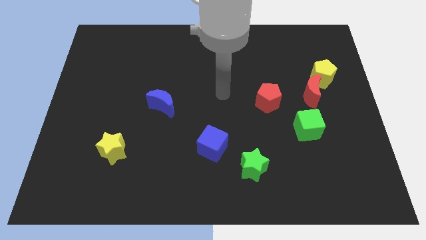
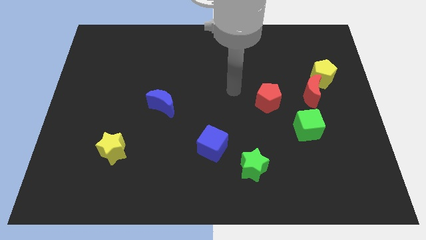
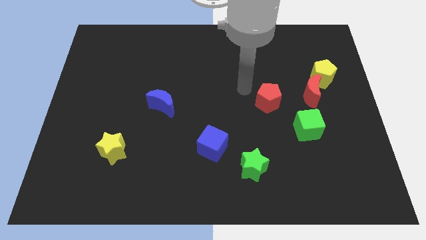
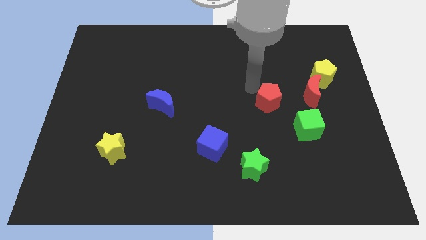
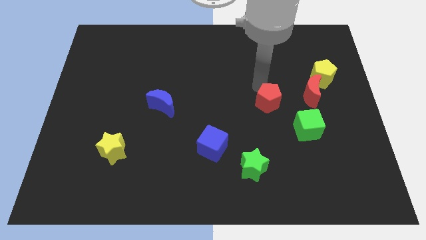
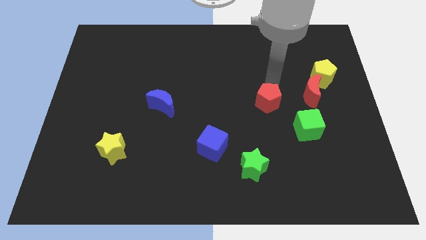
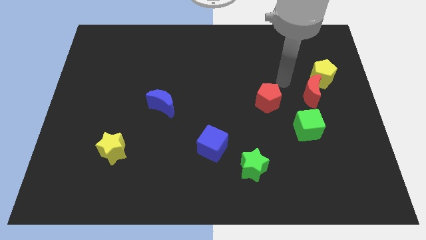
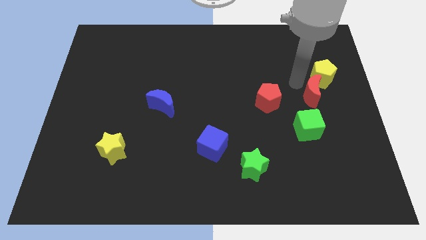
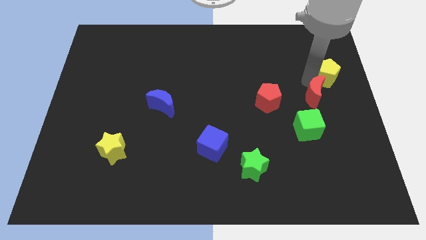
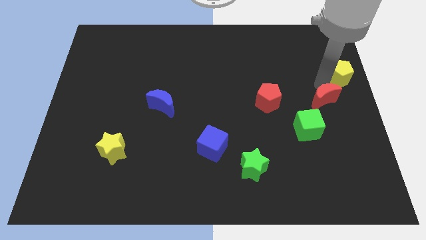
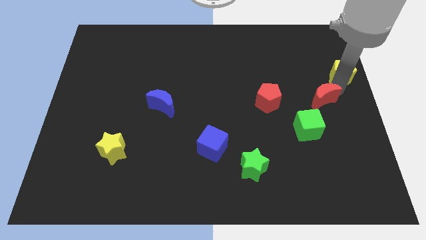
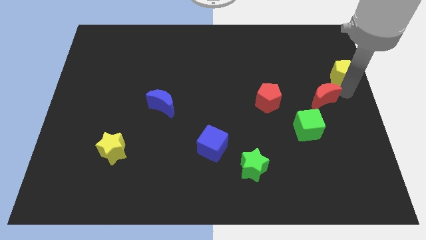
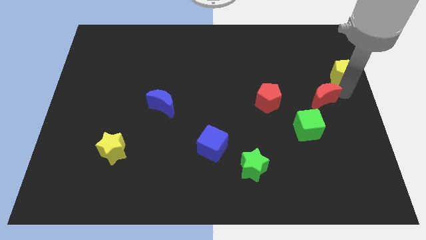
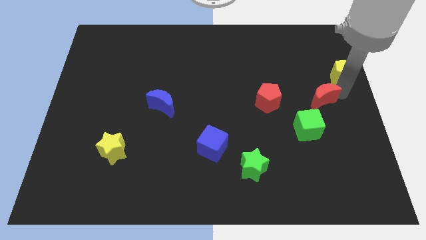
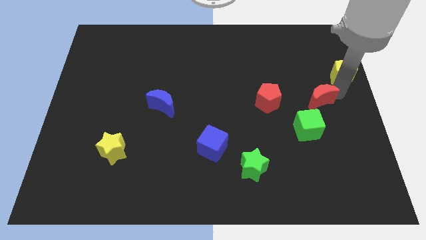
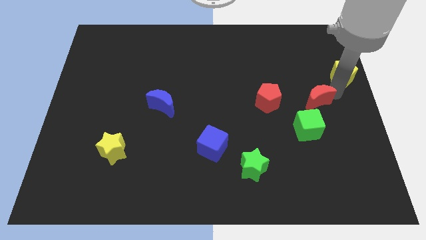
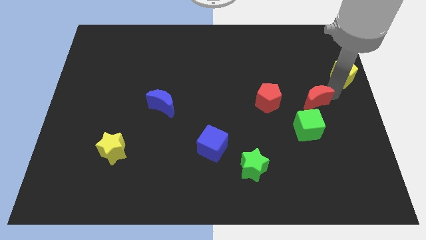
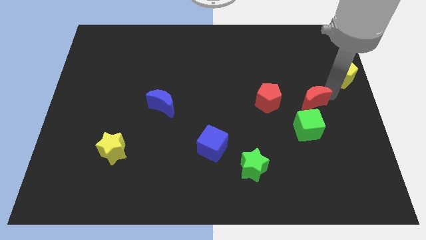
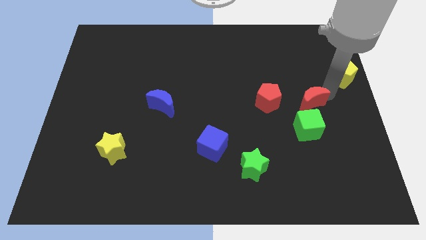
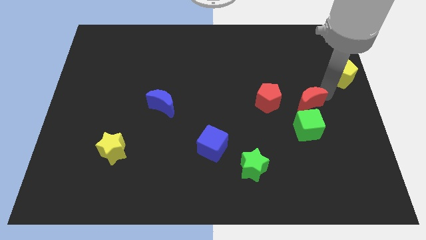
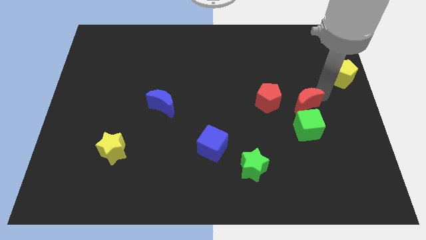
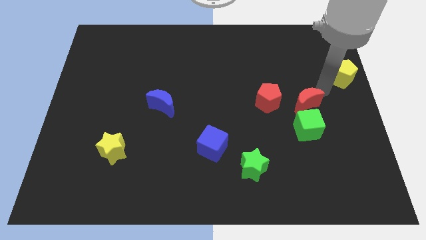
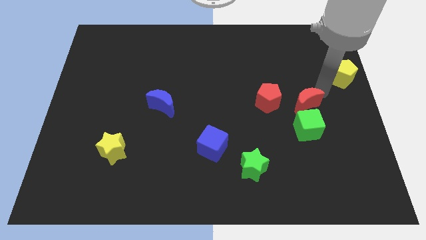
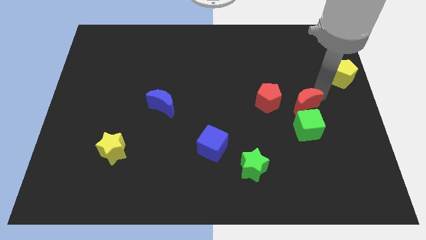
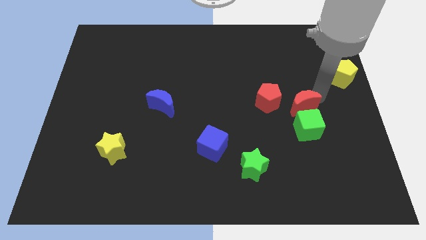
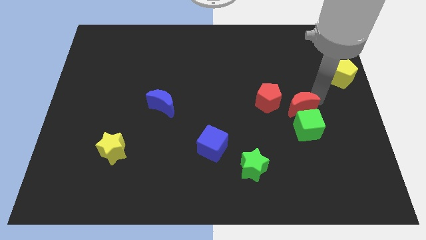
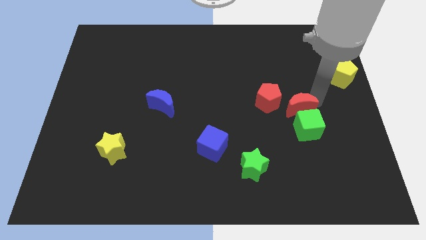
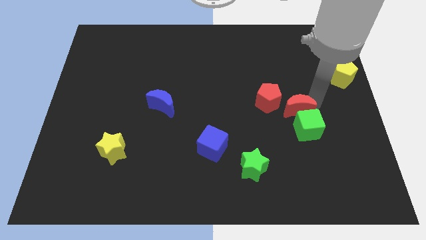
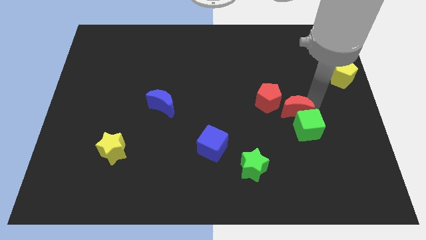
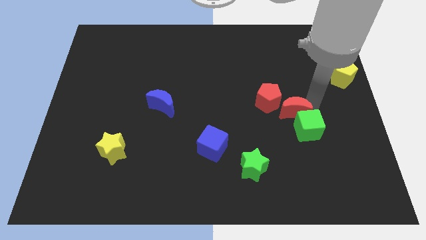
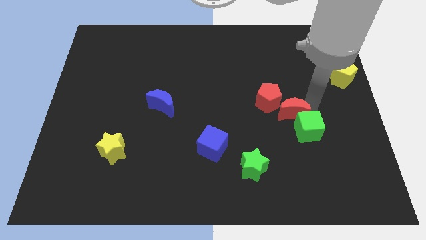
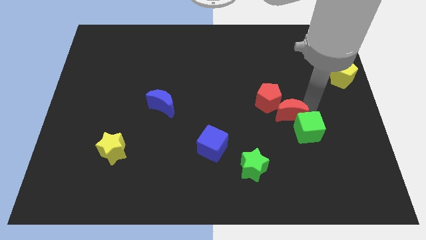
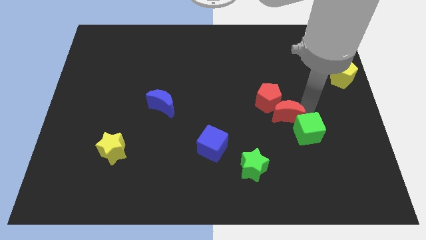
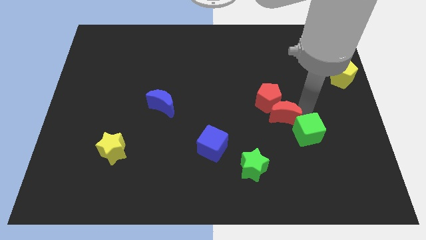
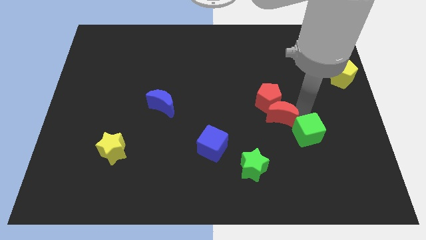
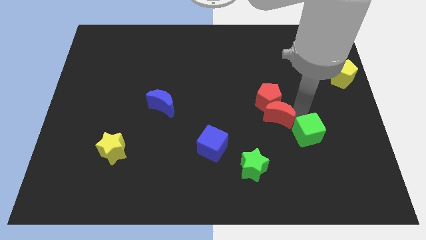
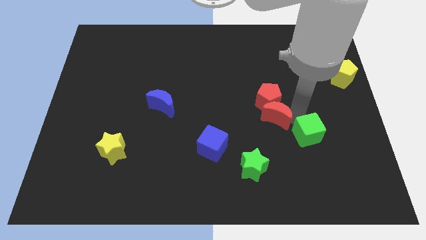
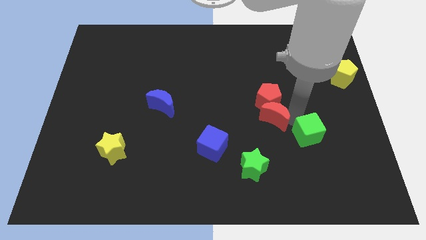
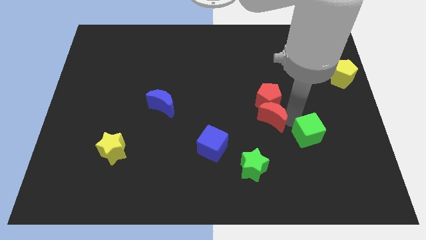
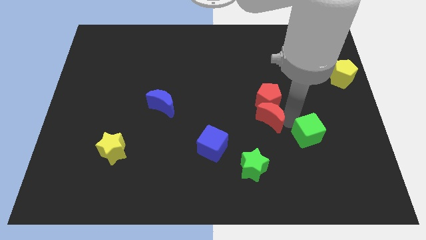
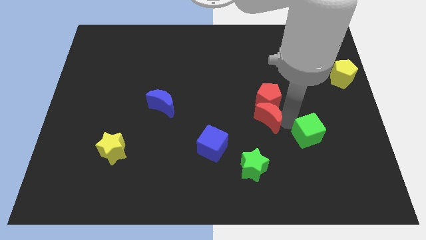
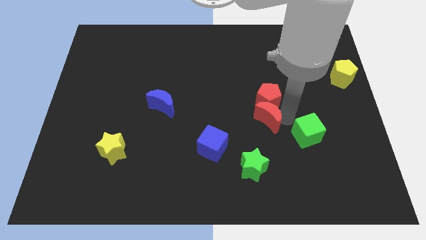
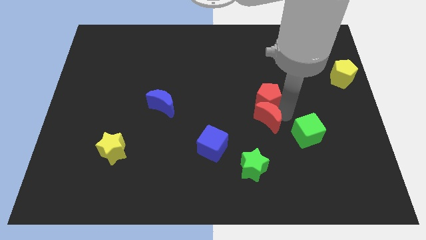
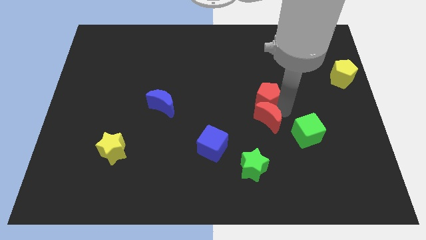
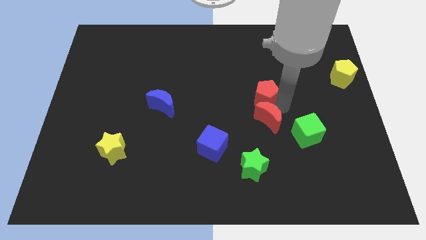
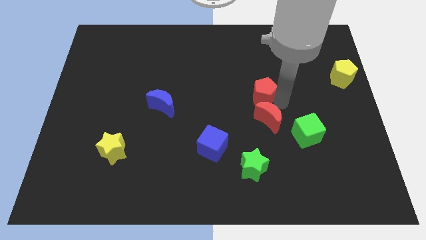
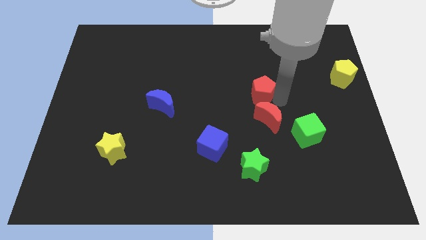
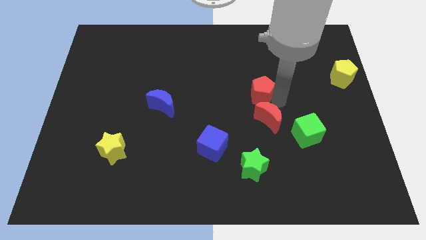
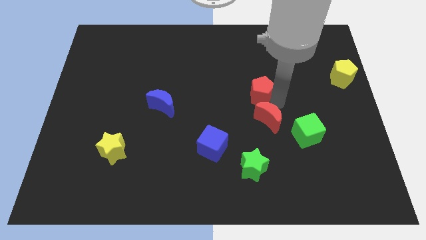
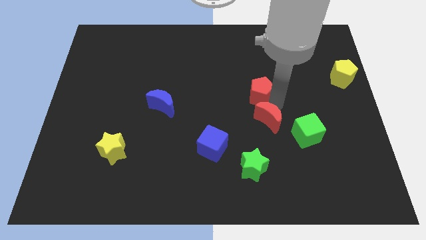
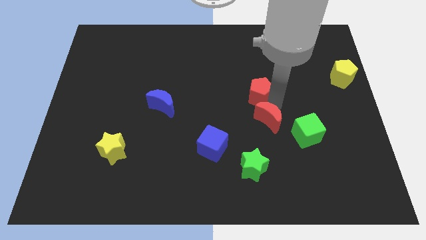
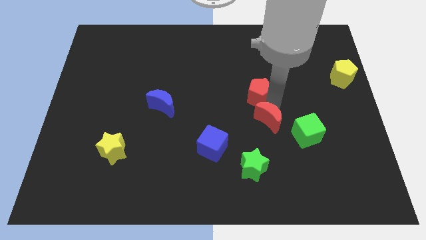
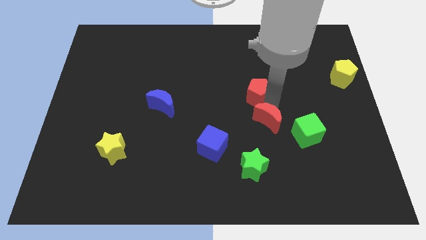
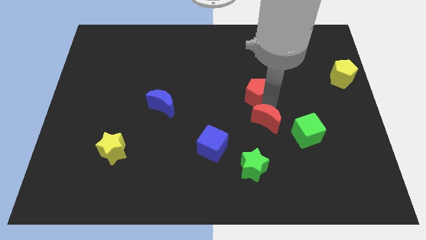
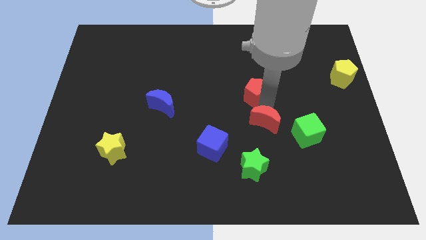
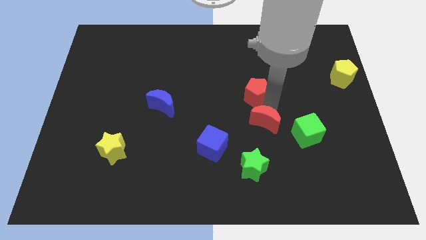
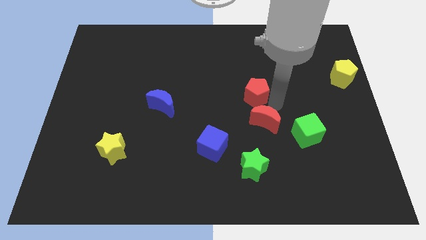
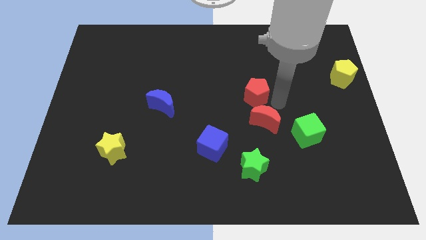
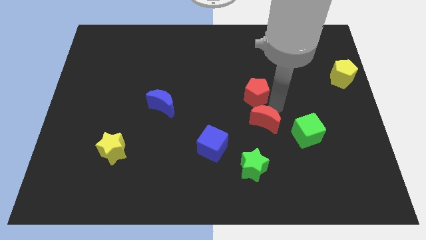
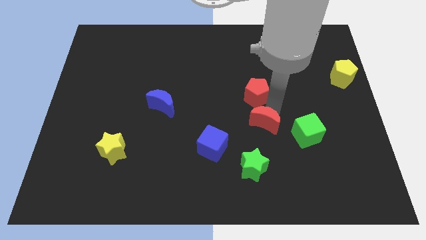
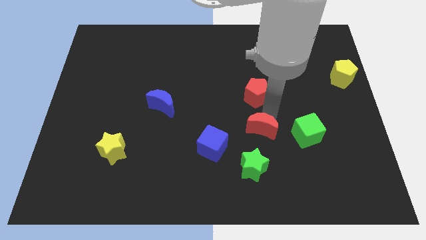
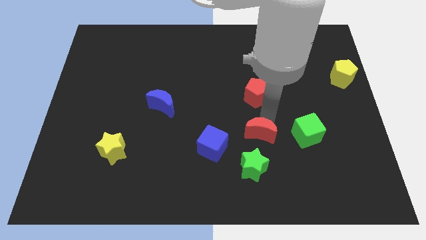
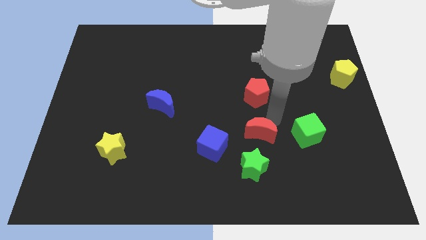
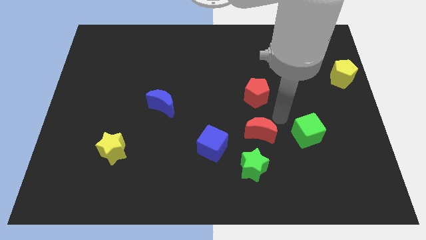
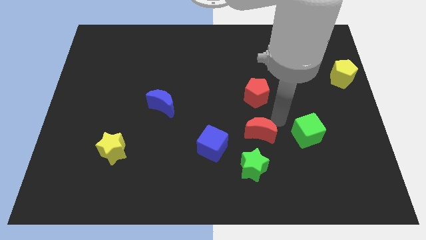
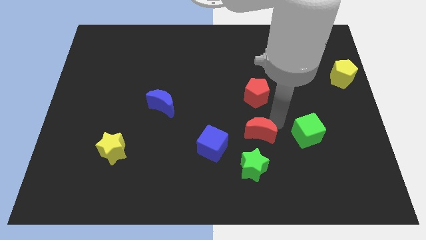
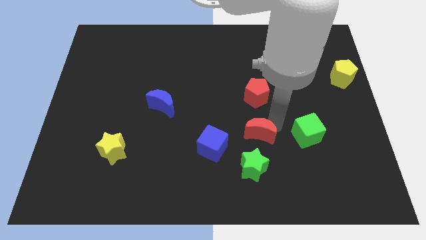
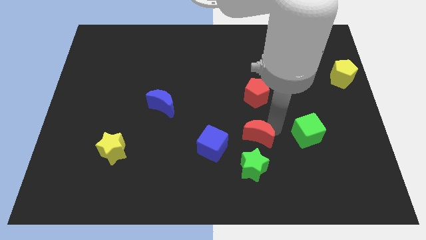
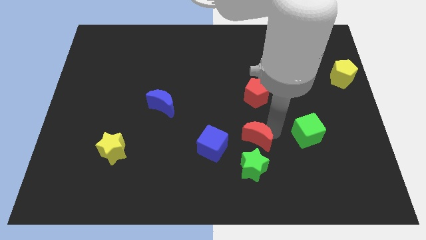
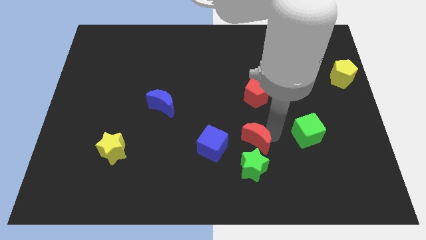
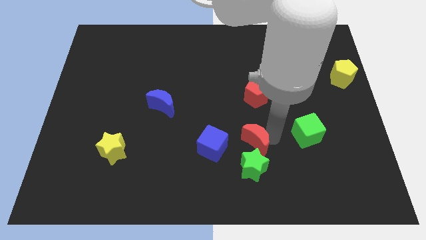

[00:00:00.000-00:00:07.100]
slide the red moon down and then left

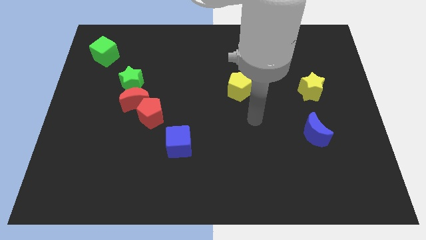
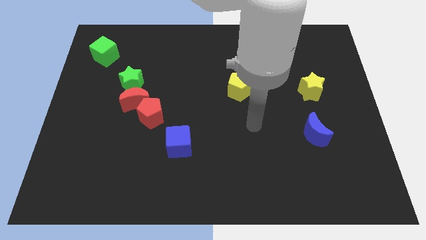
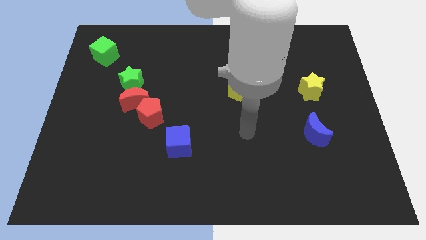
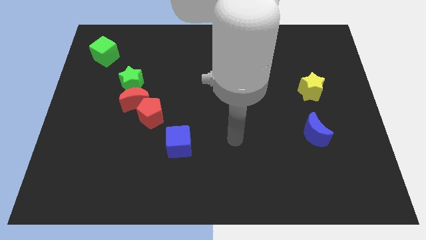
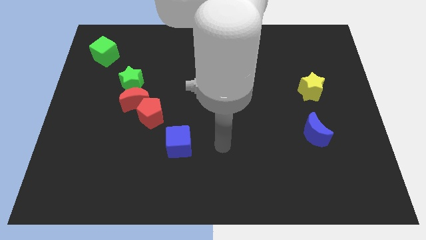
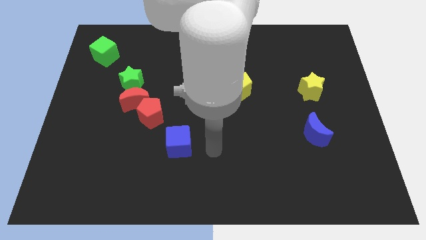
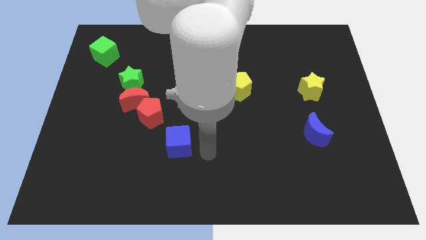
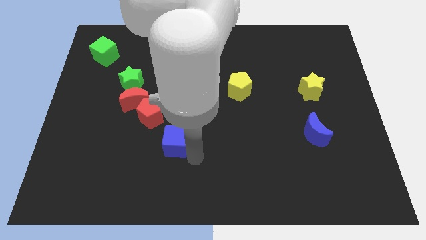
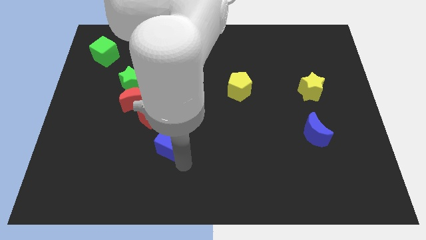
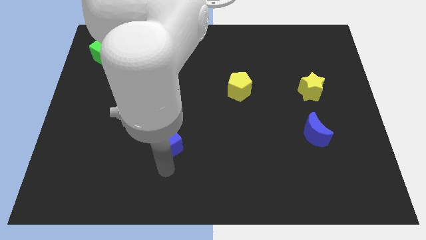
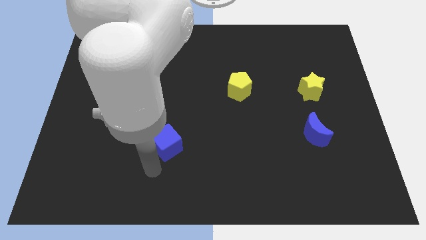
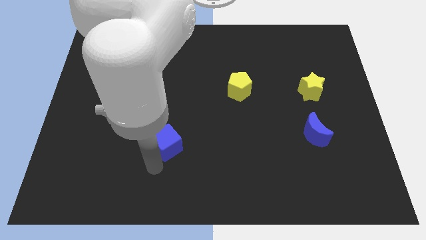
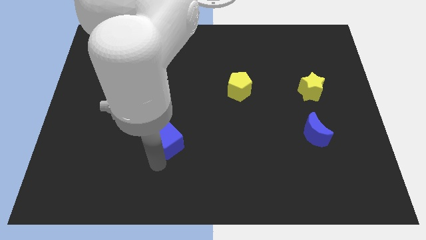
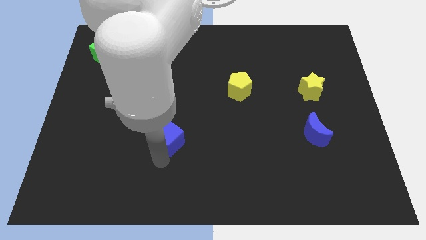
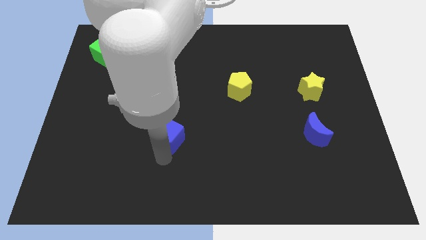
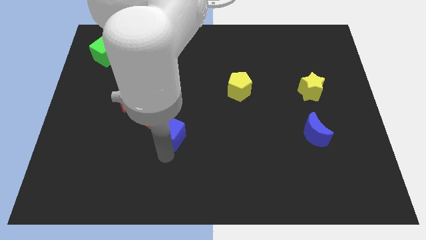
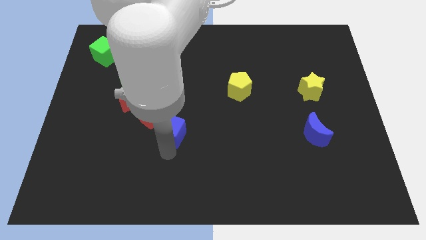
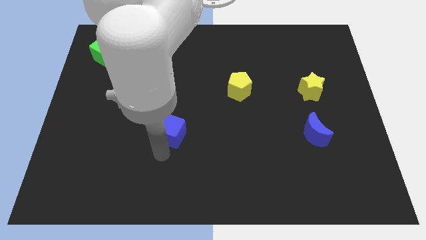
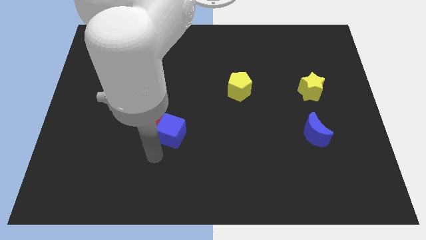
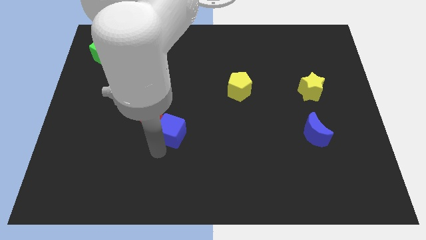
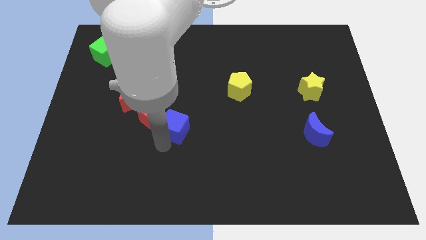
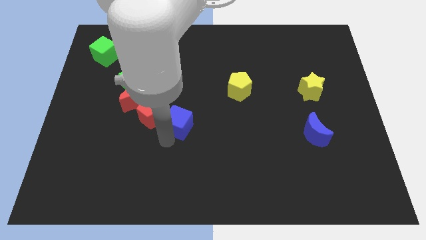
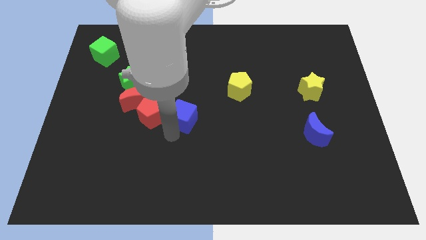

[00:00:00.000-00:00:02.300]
move the blue cube up a little bit
